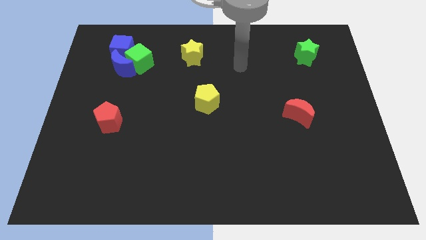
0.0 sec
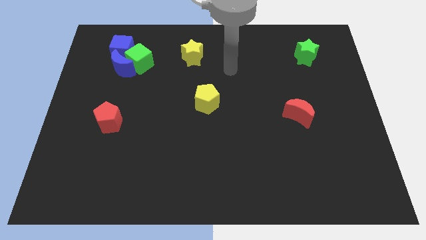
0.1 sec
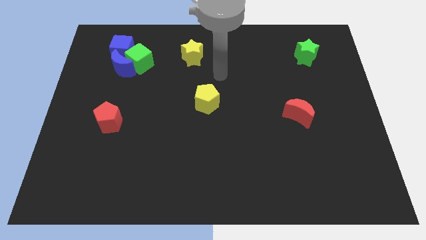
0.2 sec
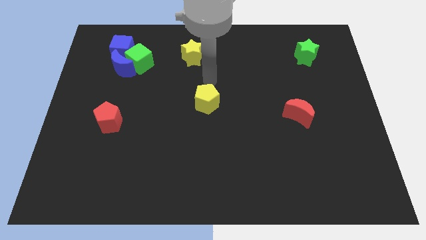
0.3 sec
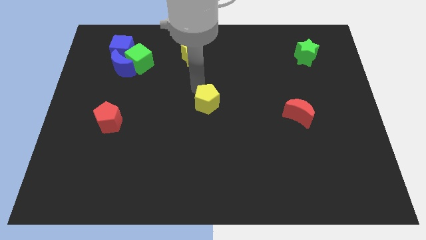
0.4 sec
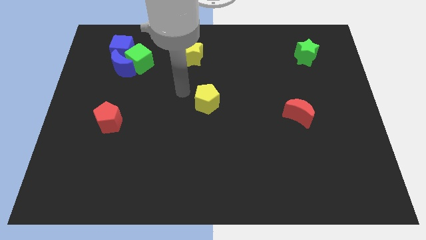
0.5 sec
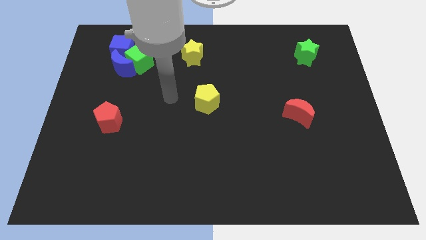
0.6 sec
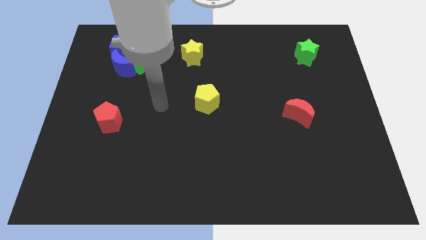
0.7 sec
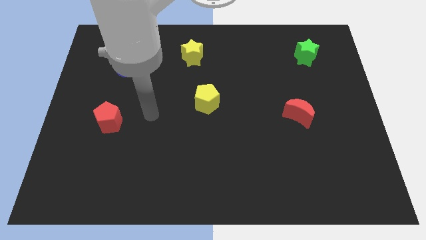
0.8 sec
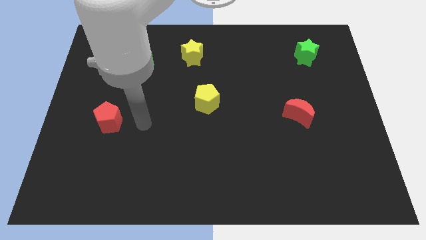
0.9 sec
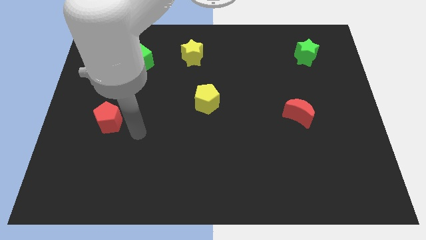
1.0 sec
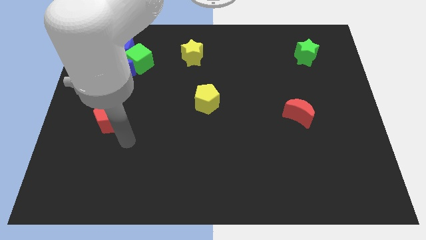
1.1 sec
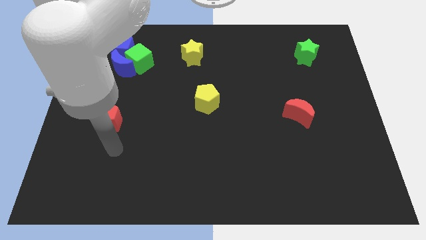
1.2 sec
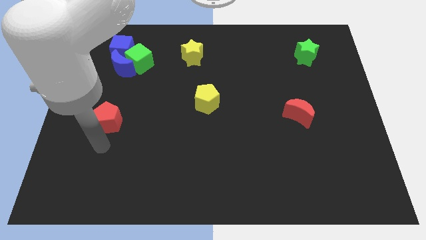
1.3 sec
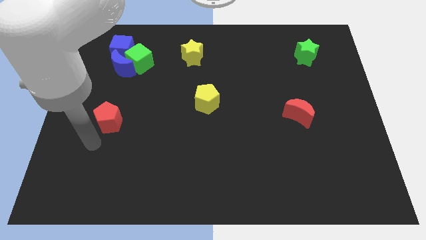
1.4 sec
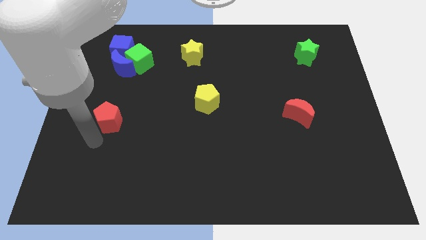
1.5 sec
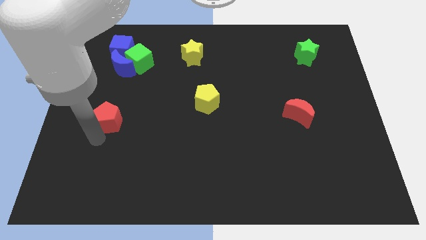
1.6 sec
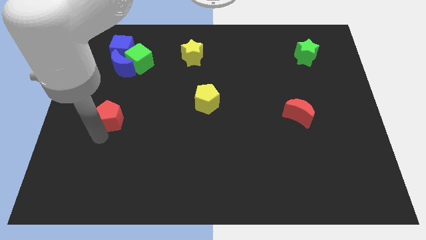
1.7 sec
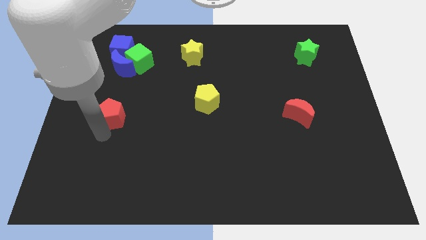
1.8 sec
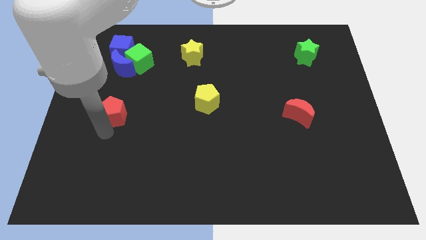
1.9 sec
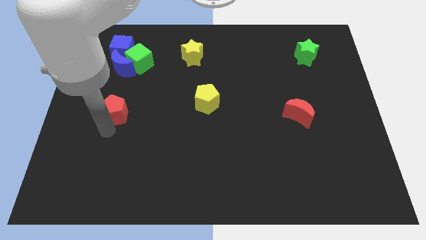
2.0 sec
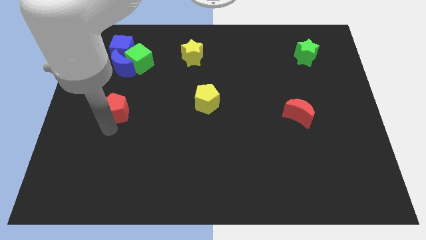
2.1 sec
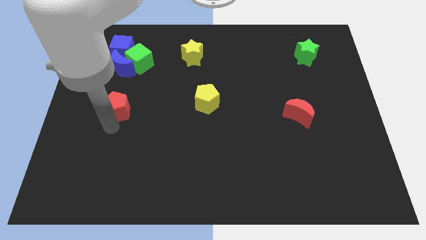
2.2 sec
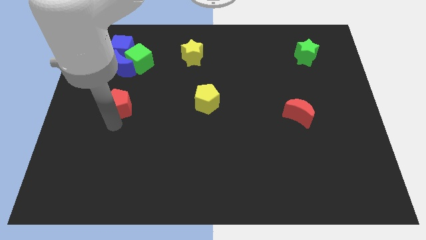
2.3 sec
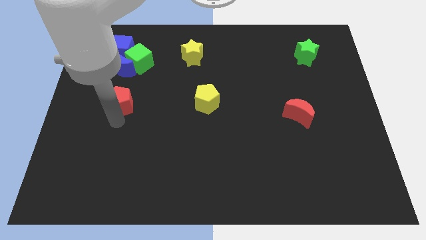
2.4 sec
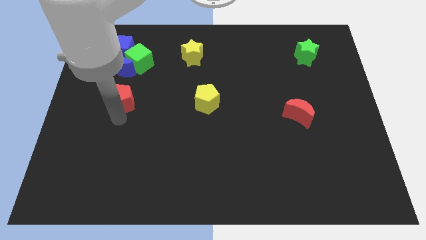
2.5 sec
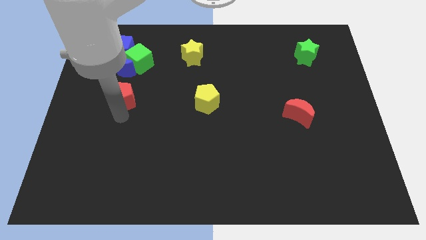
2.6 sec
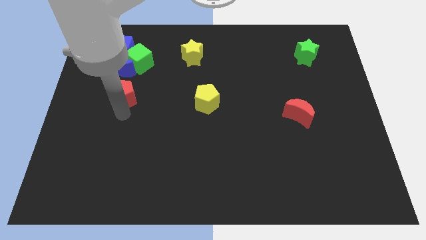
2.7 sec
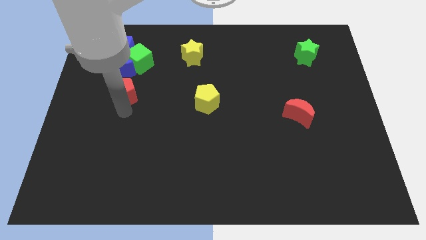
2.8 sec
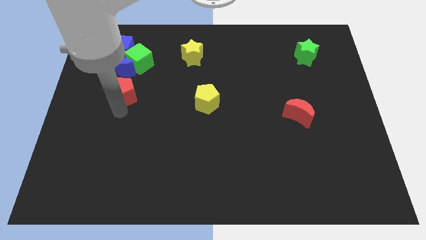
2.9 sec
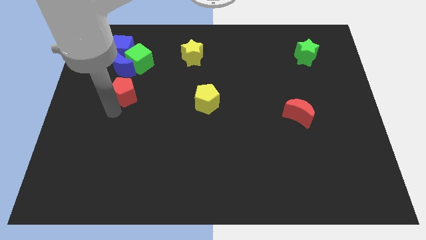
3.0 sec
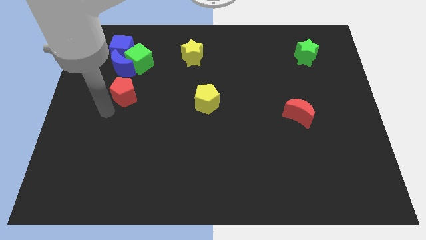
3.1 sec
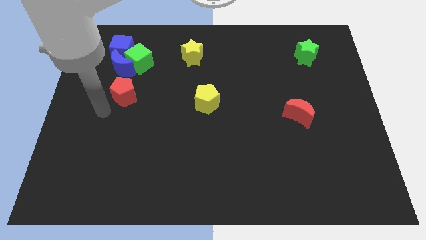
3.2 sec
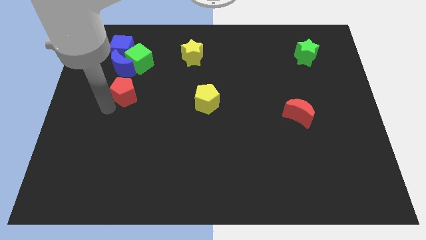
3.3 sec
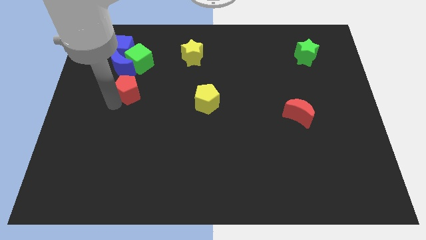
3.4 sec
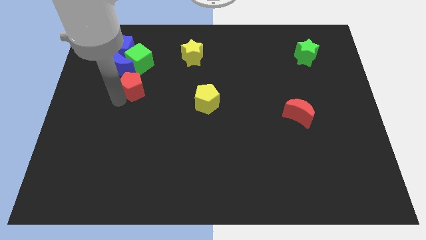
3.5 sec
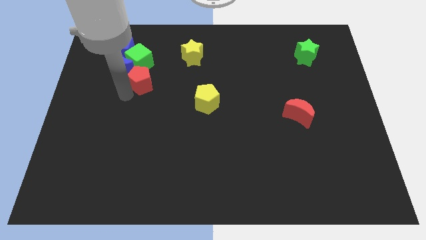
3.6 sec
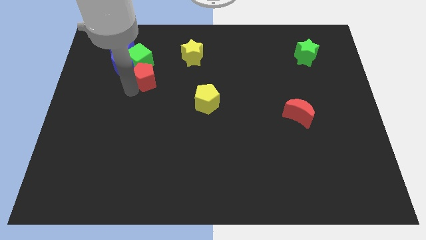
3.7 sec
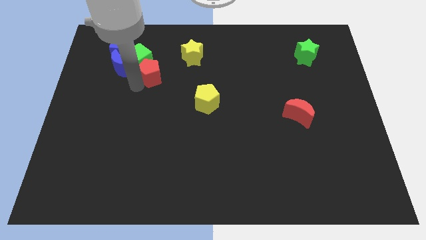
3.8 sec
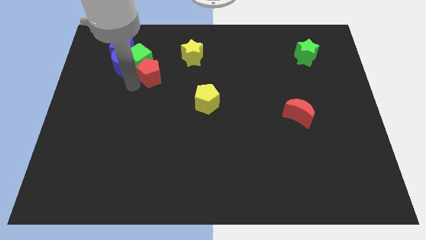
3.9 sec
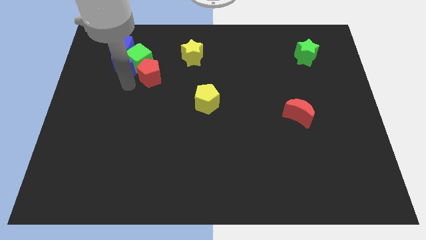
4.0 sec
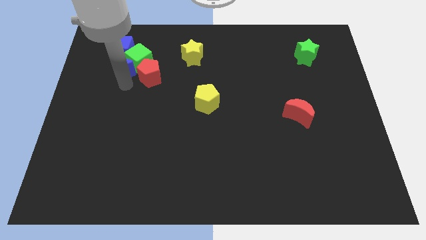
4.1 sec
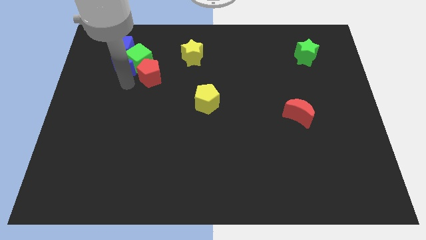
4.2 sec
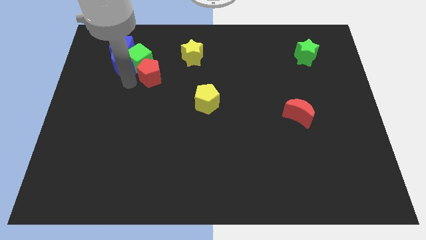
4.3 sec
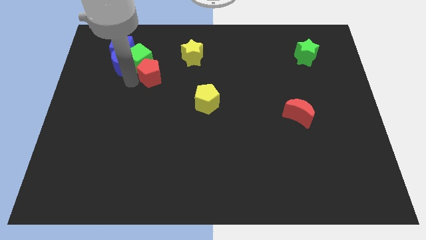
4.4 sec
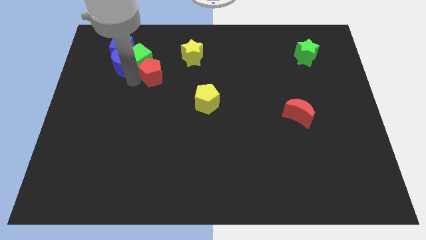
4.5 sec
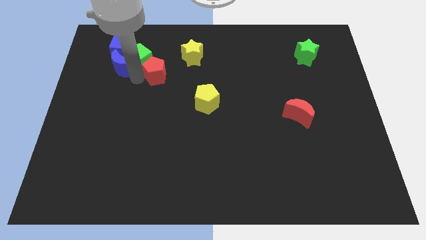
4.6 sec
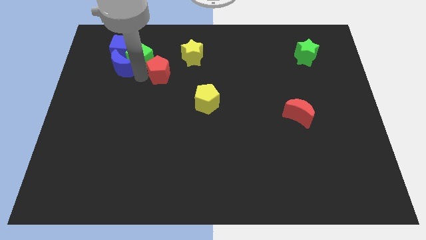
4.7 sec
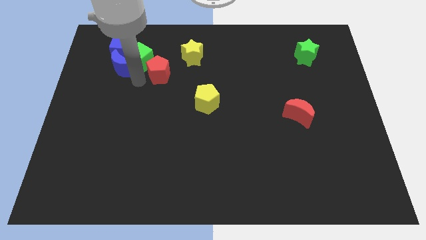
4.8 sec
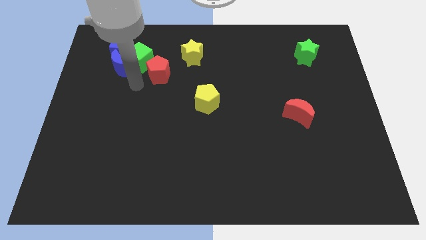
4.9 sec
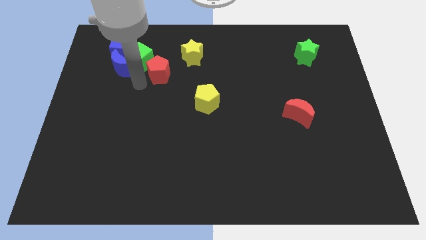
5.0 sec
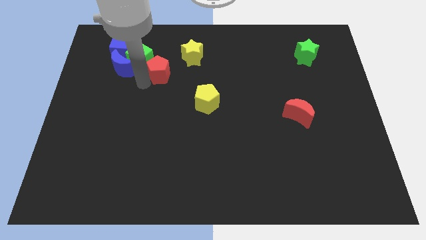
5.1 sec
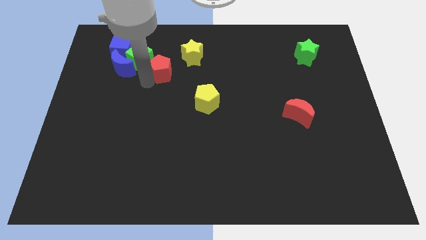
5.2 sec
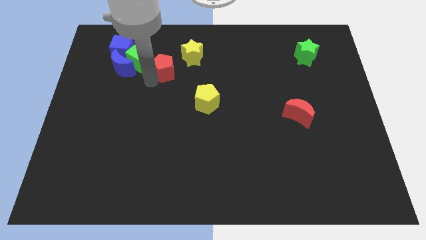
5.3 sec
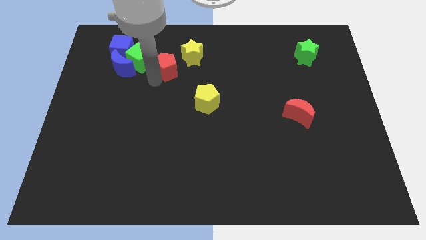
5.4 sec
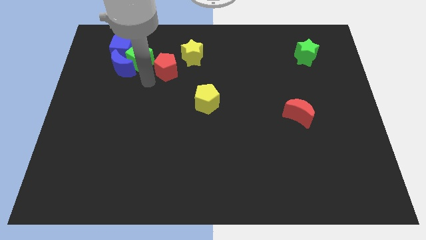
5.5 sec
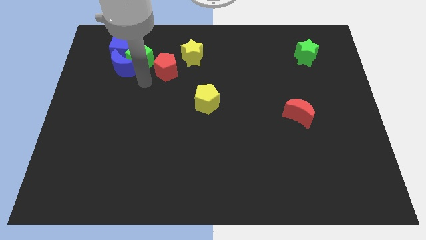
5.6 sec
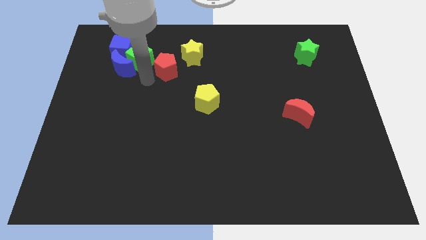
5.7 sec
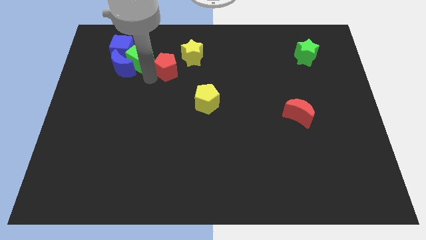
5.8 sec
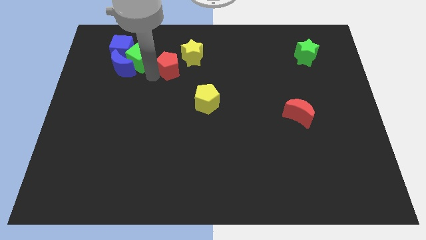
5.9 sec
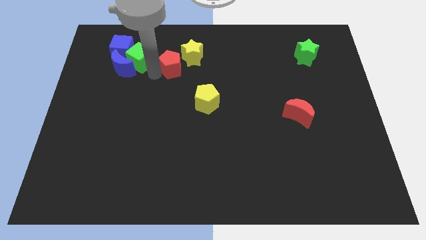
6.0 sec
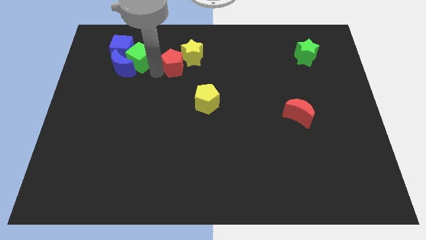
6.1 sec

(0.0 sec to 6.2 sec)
move the red pentagon next to the yellow star
